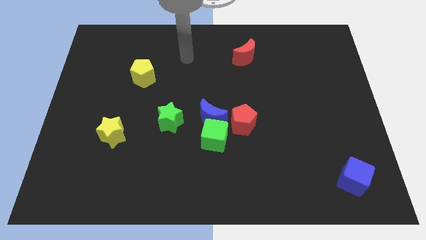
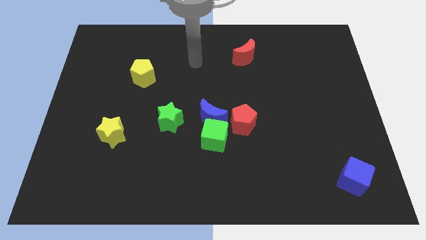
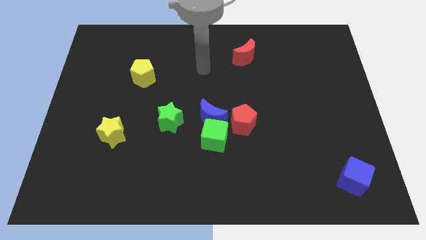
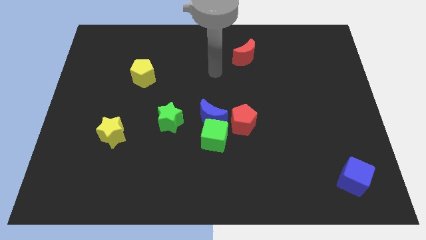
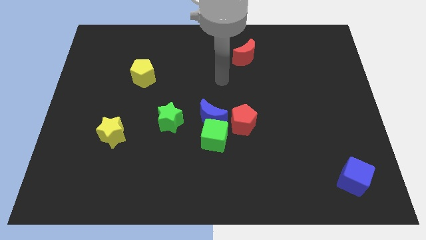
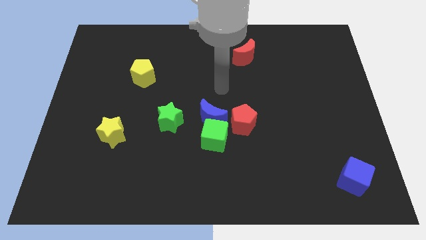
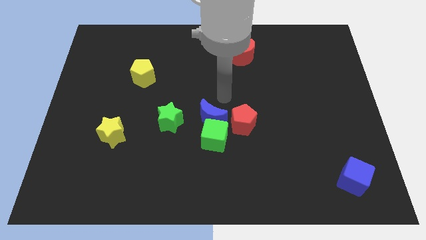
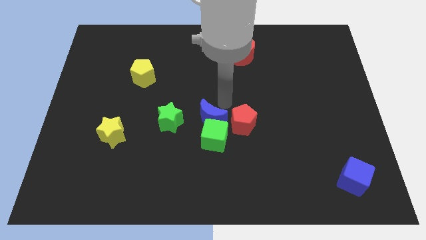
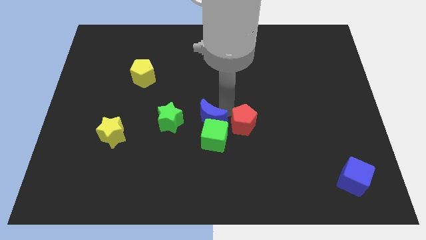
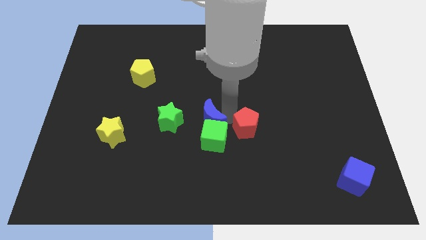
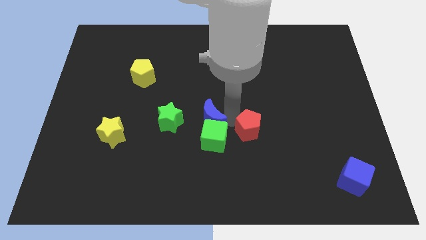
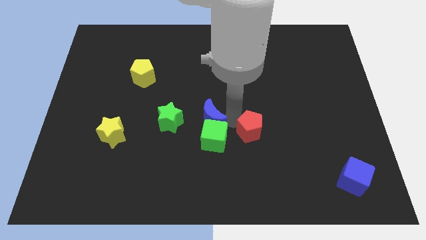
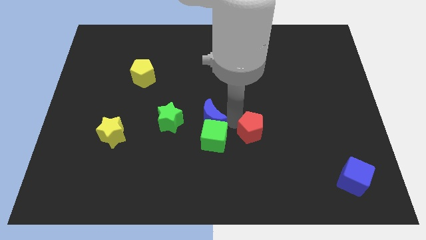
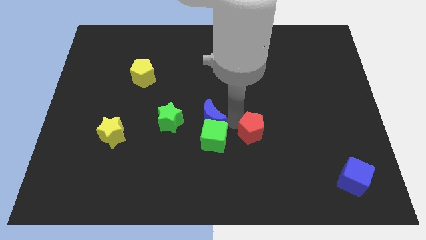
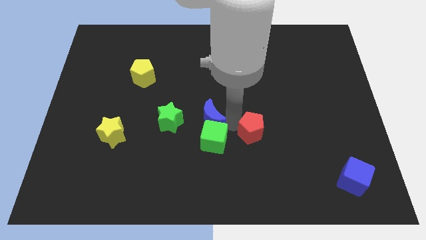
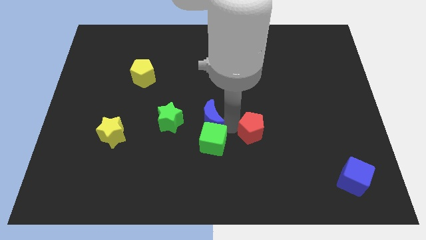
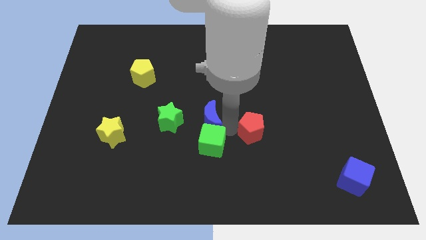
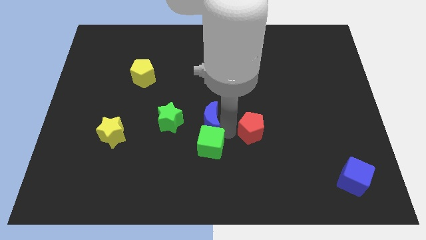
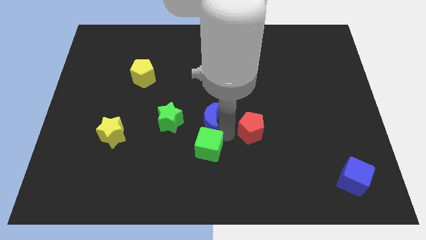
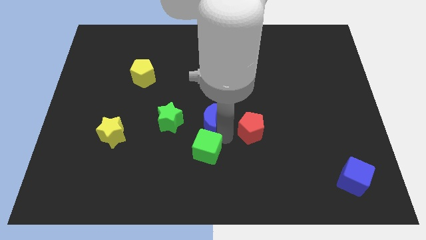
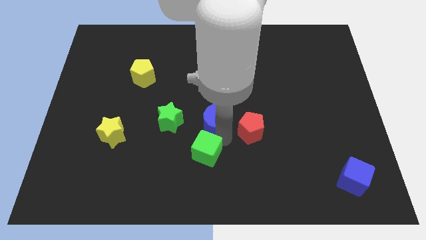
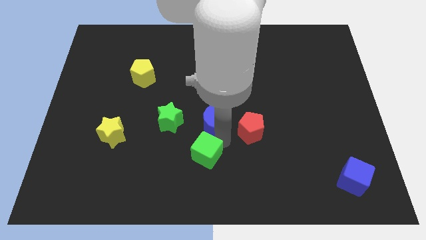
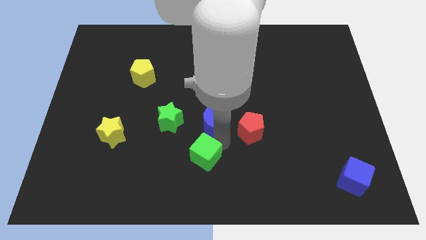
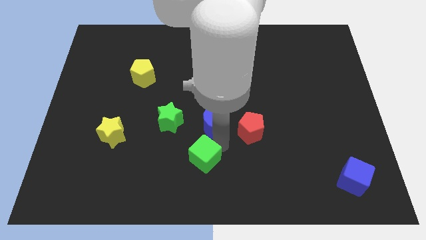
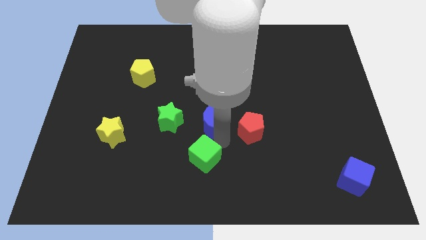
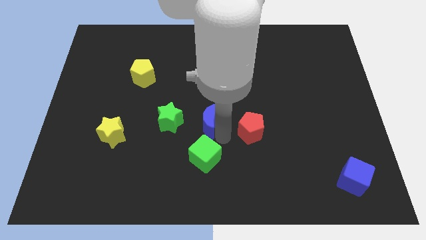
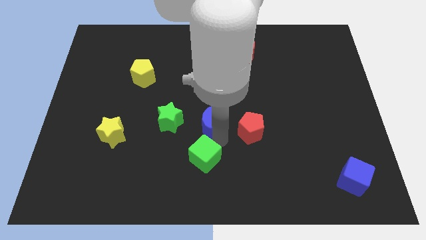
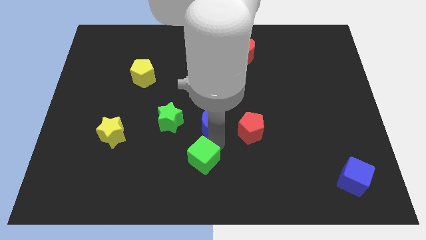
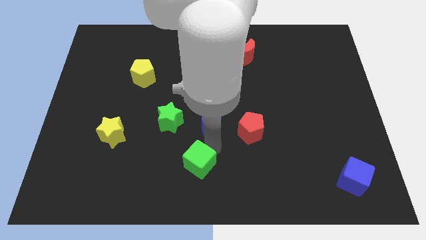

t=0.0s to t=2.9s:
pull the green cube apart from the blue moon and red pentagon

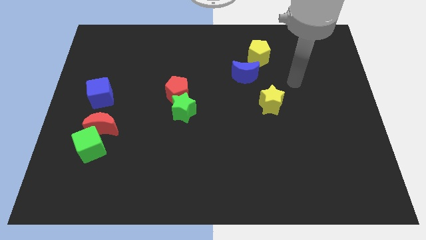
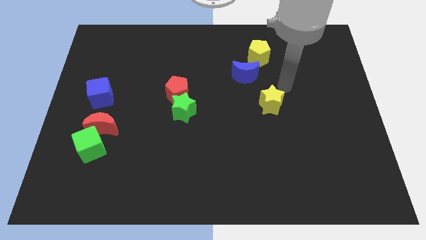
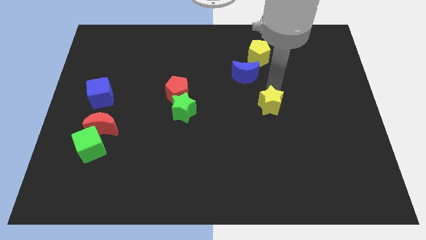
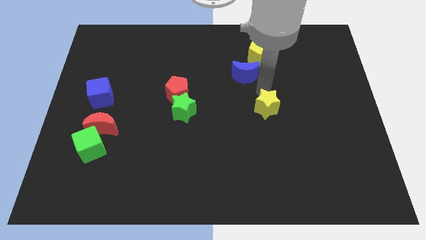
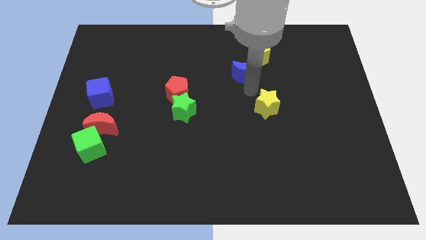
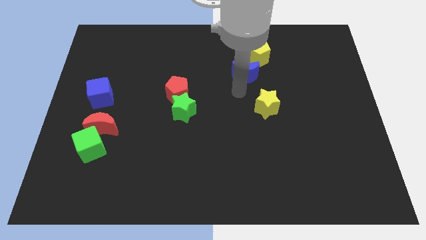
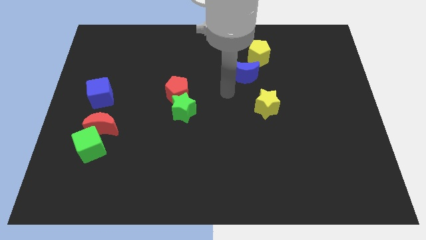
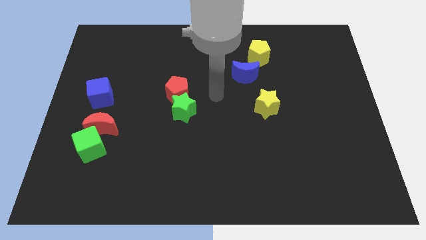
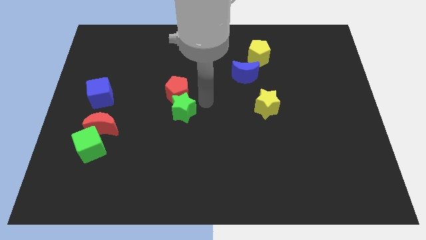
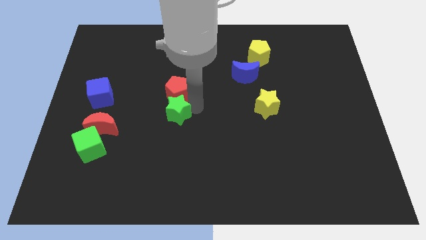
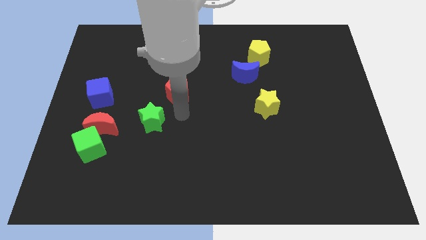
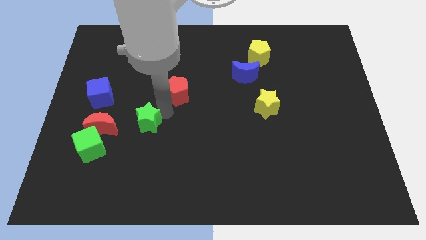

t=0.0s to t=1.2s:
pull the red pentagon apart from the green star

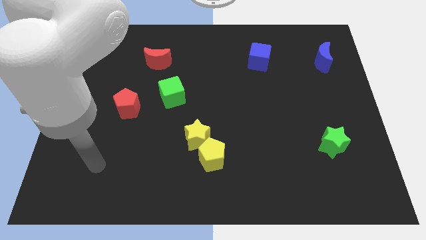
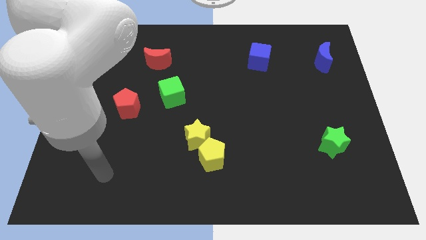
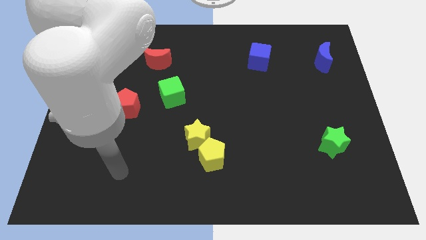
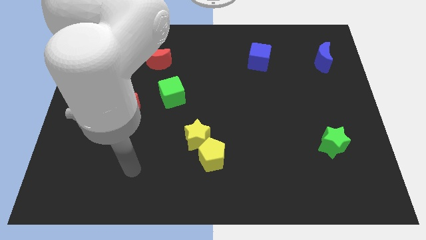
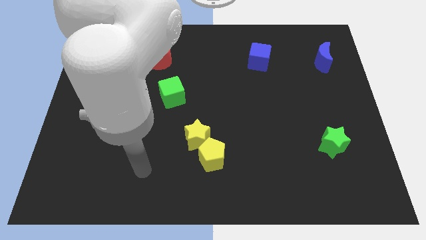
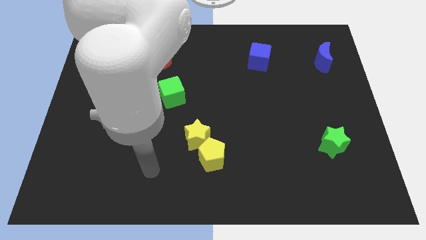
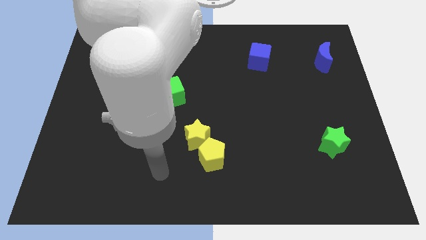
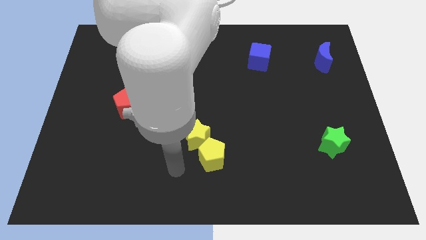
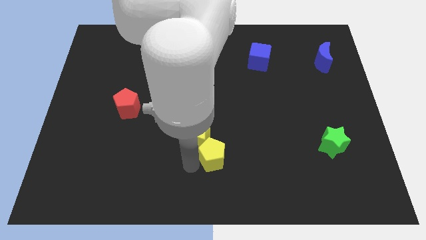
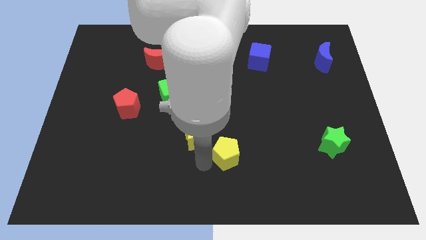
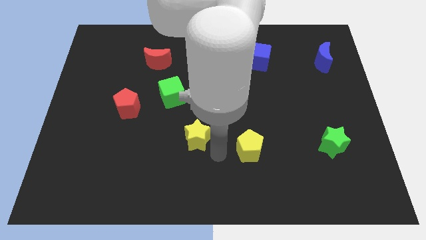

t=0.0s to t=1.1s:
separate the yellow star from the yellow pentagon

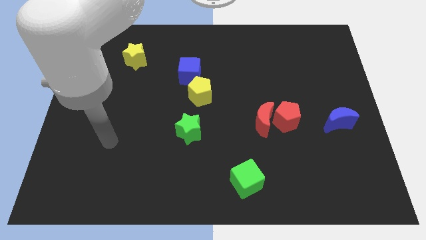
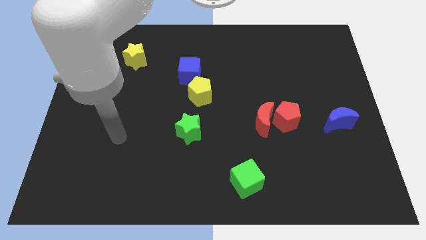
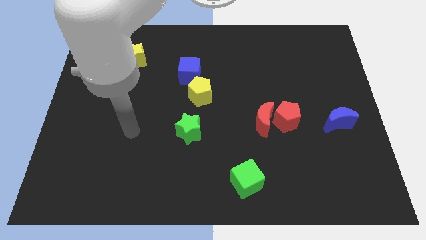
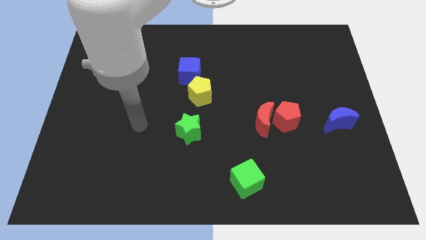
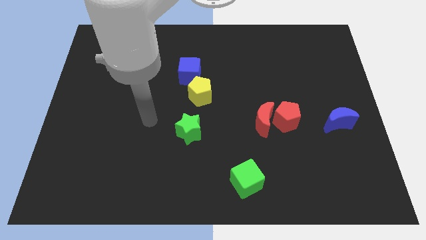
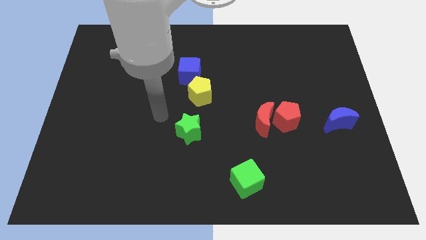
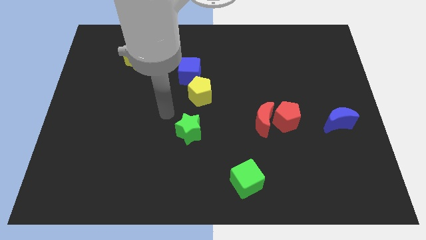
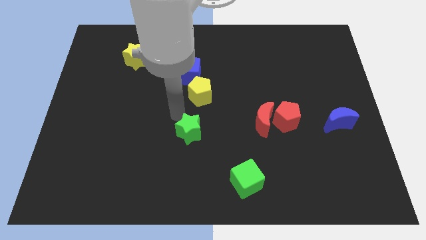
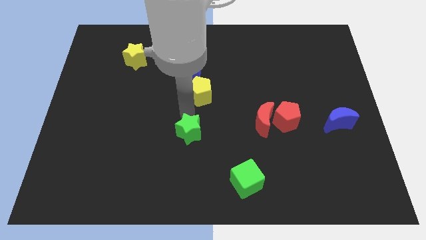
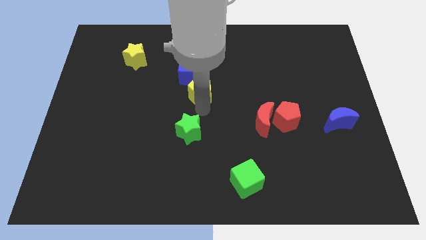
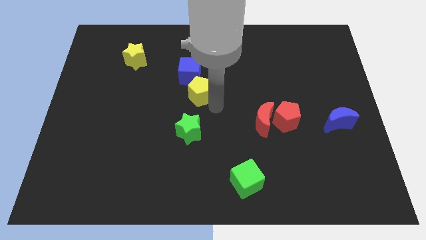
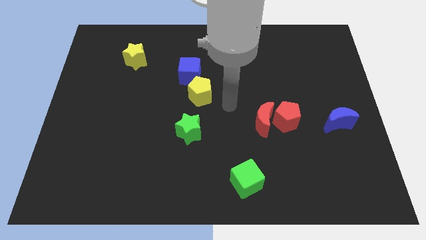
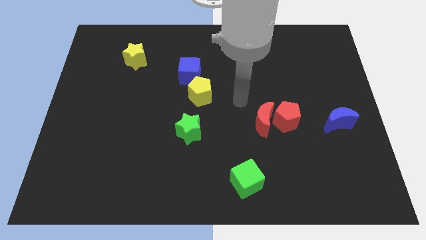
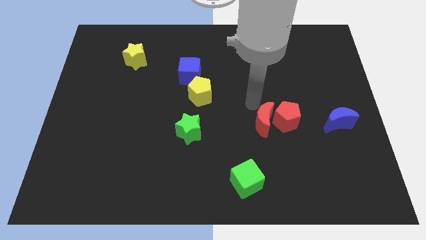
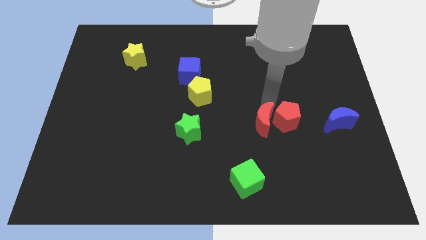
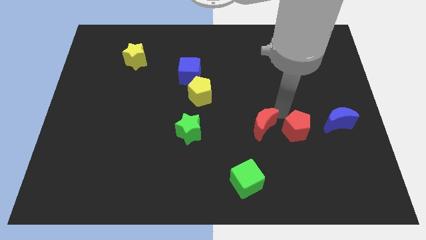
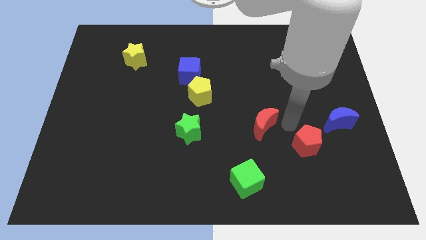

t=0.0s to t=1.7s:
pull the red moon apart from the red pentagon

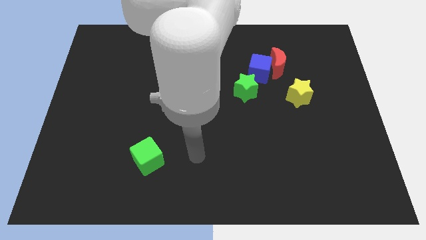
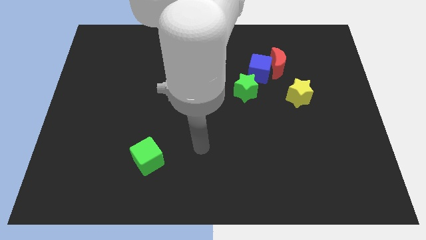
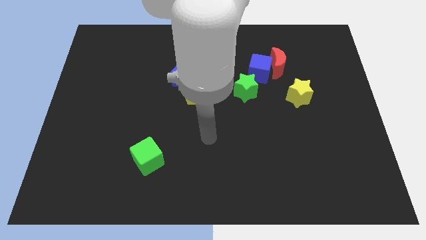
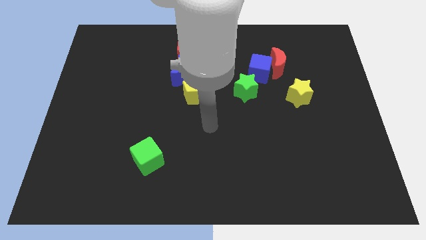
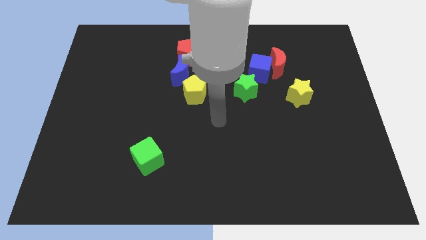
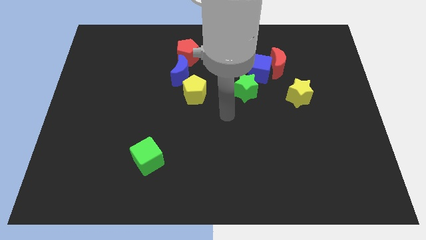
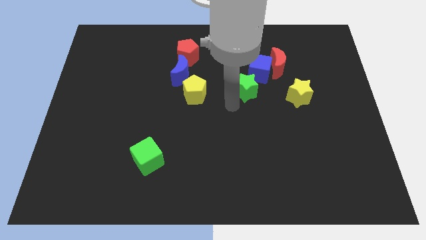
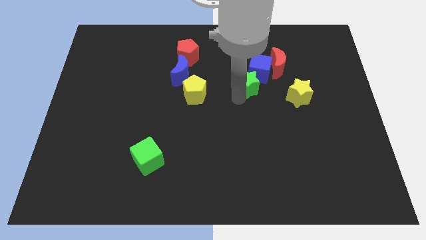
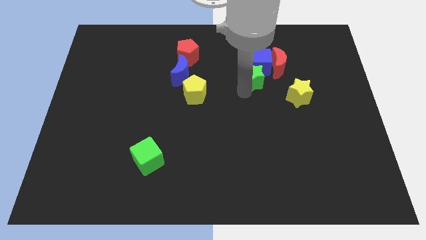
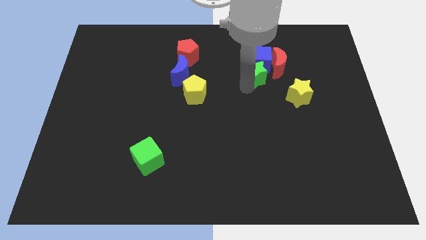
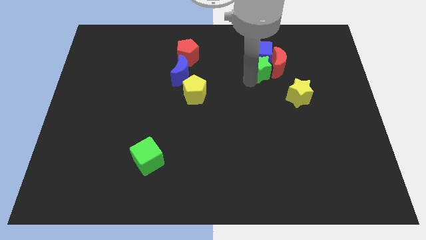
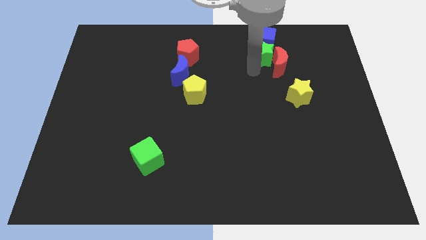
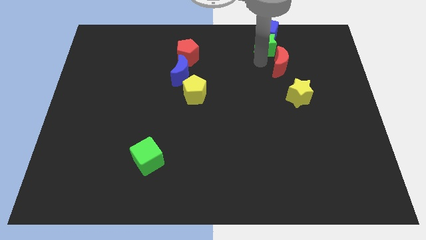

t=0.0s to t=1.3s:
move the red moon away from the blue cube

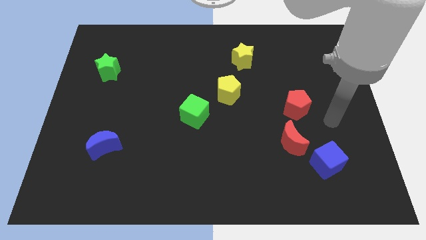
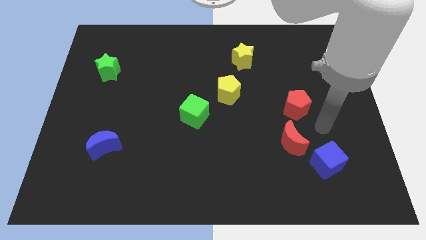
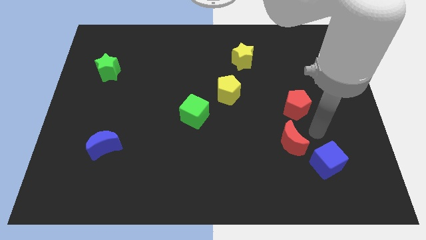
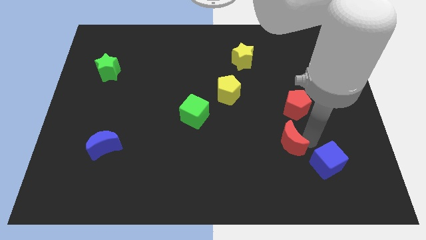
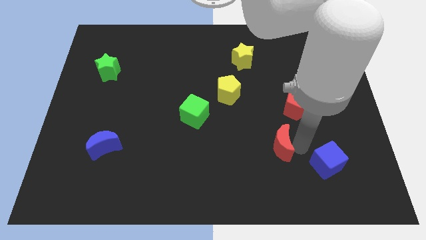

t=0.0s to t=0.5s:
pull the blue cube apart from the red moon

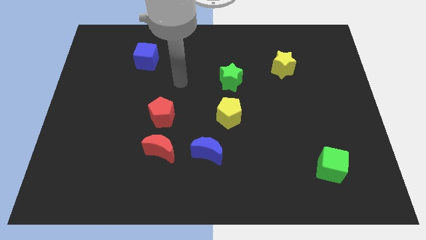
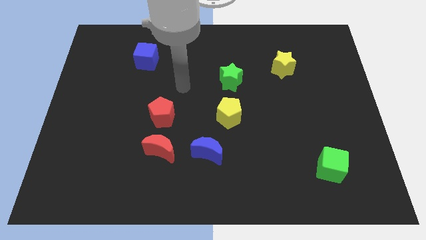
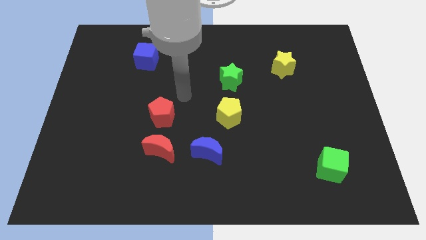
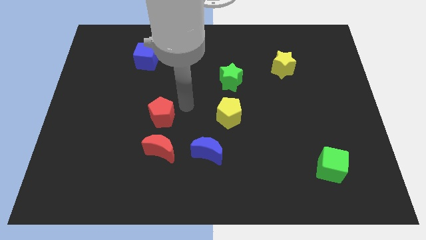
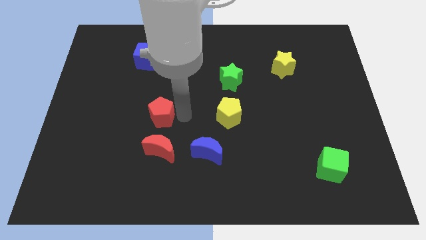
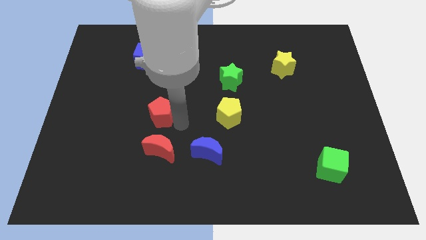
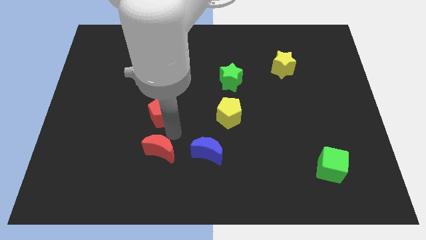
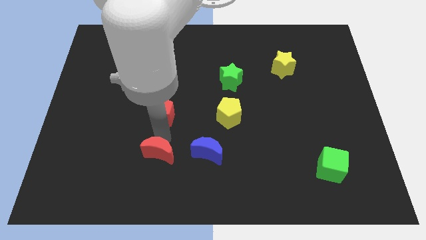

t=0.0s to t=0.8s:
pull the red pentagon apart from the red moon

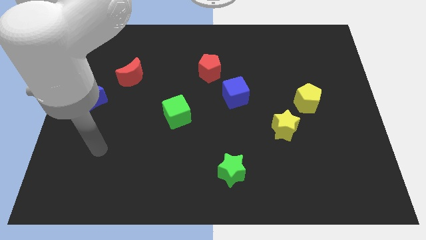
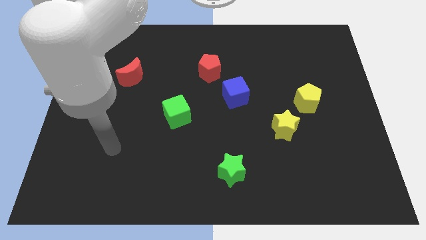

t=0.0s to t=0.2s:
move the yellow star away from the yellow pentagon
